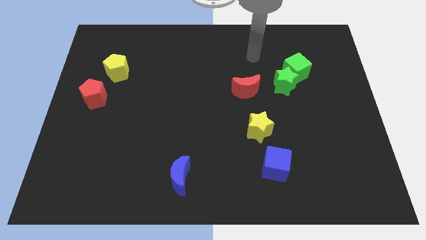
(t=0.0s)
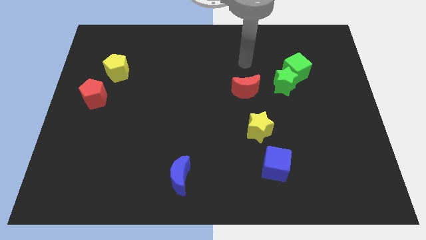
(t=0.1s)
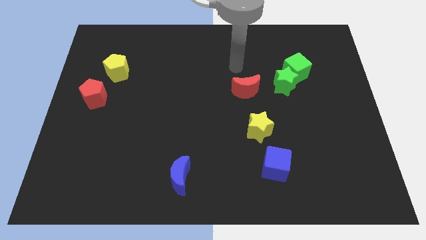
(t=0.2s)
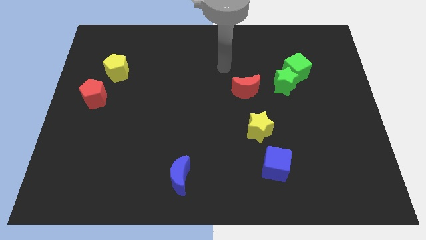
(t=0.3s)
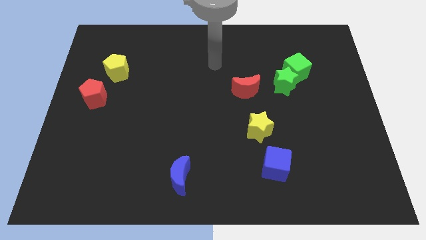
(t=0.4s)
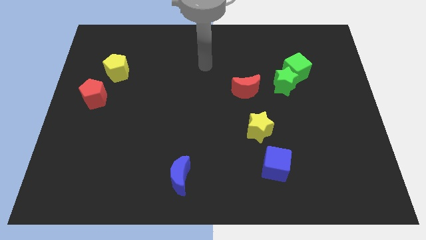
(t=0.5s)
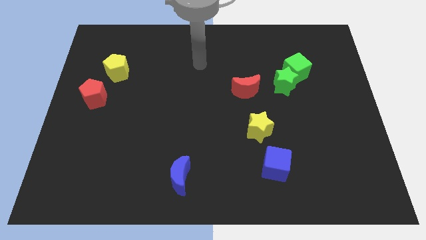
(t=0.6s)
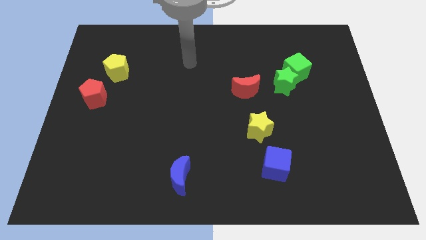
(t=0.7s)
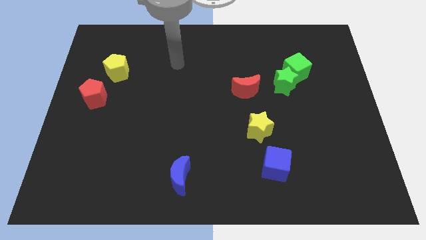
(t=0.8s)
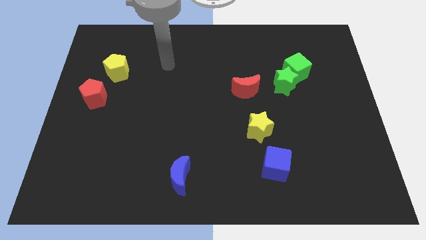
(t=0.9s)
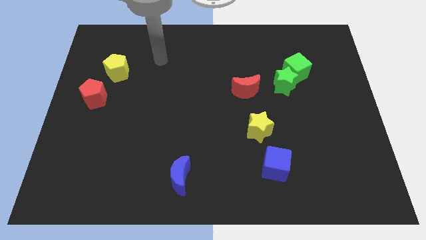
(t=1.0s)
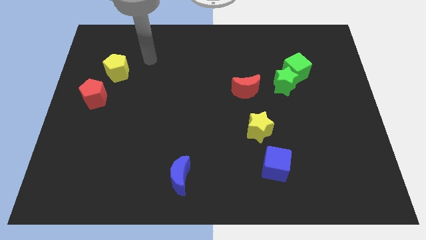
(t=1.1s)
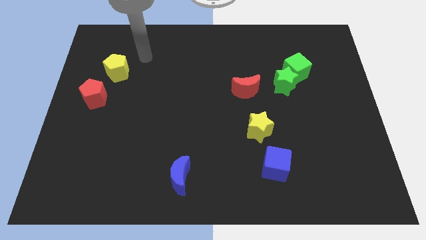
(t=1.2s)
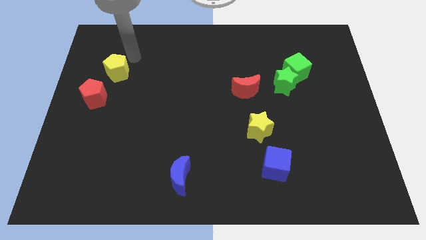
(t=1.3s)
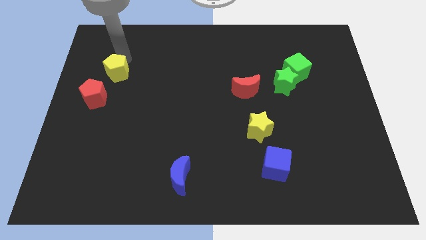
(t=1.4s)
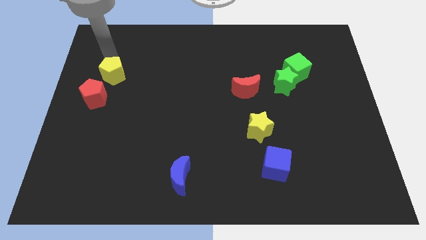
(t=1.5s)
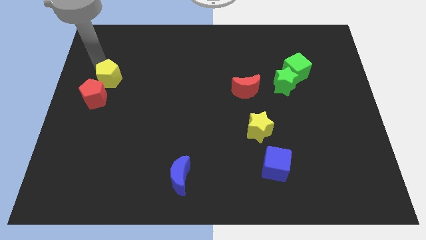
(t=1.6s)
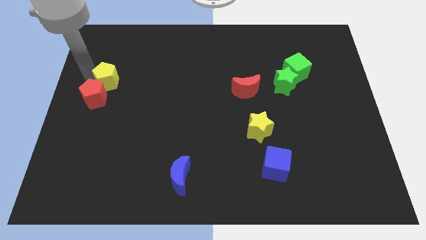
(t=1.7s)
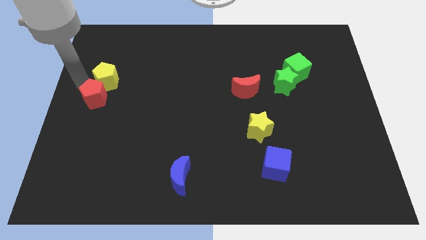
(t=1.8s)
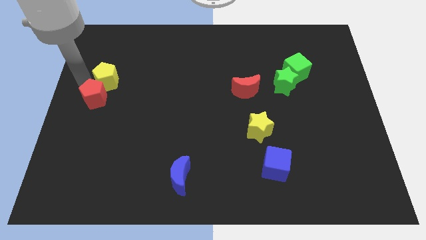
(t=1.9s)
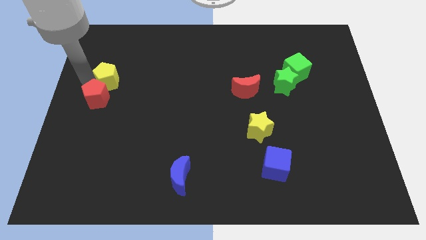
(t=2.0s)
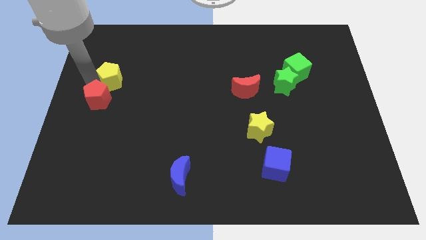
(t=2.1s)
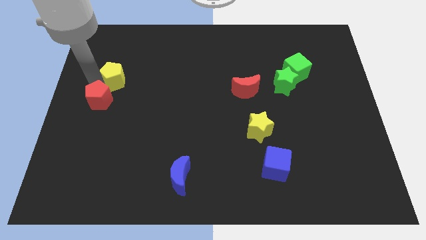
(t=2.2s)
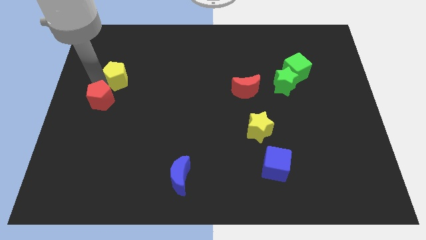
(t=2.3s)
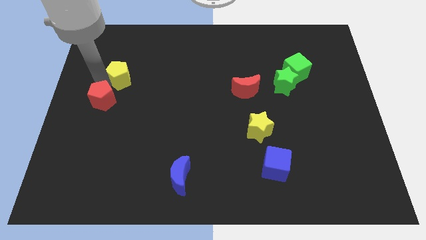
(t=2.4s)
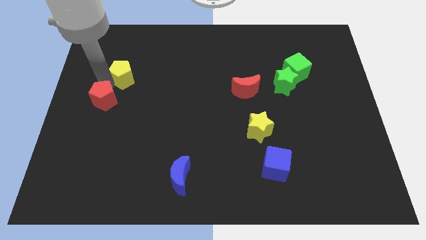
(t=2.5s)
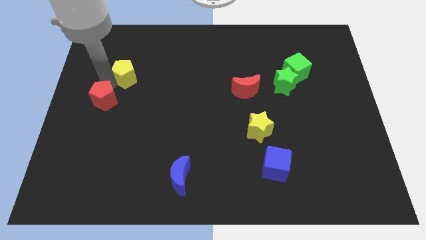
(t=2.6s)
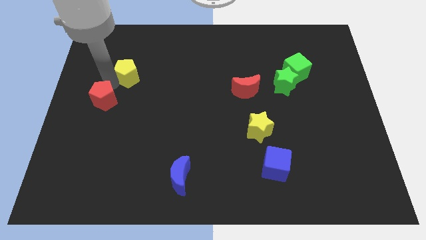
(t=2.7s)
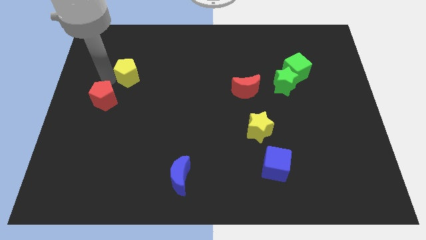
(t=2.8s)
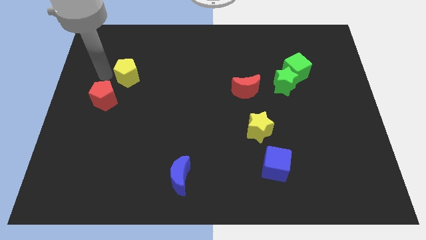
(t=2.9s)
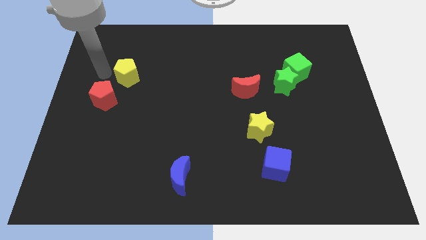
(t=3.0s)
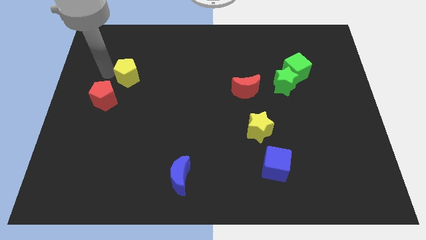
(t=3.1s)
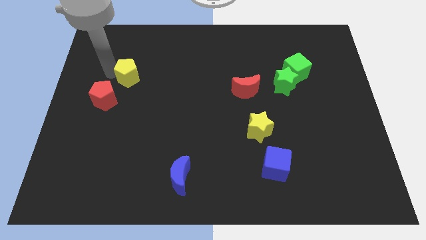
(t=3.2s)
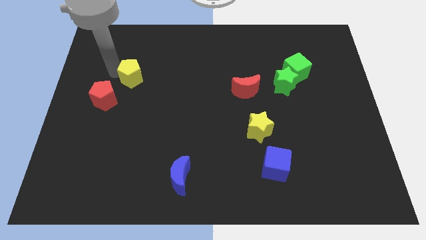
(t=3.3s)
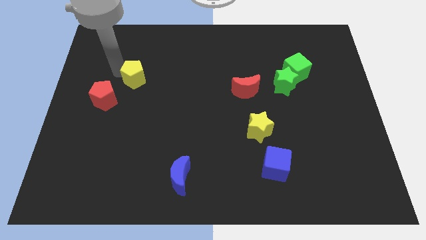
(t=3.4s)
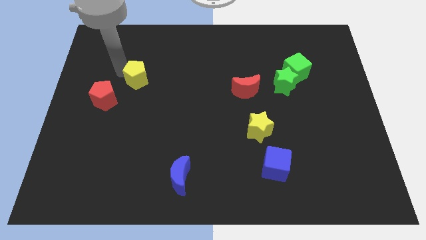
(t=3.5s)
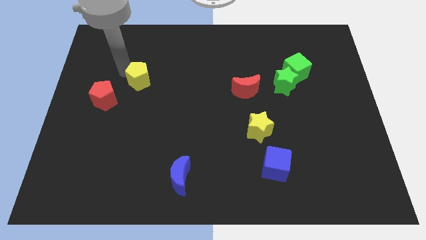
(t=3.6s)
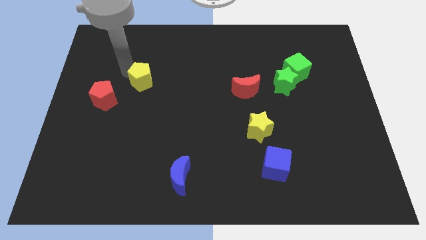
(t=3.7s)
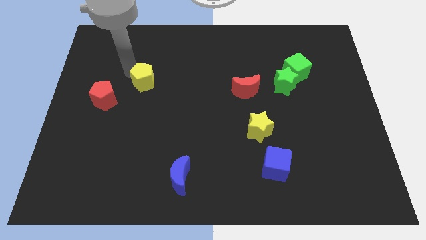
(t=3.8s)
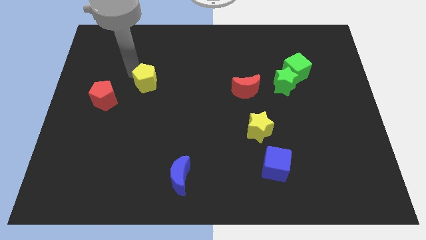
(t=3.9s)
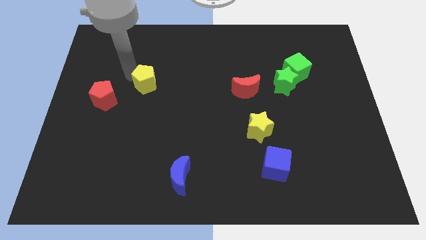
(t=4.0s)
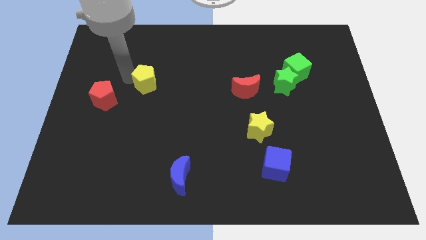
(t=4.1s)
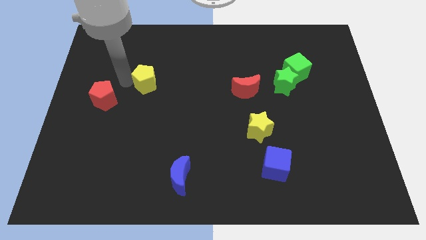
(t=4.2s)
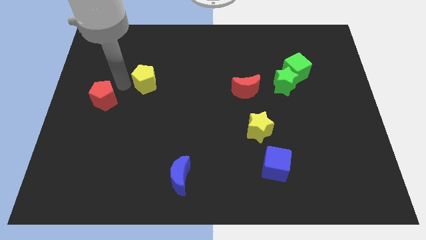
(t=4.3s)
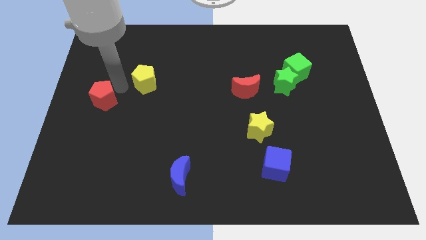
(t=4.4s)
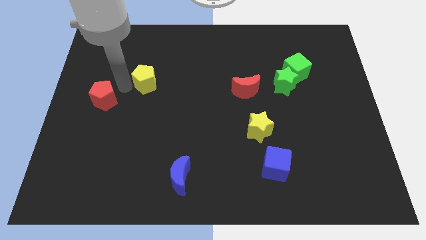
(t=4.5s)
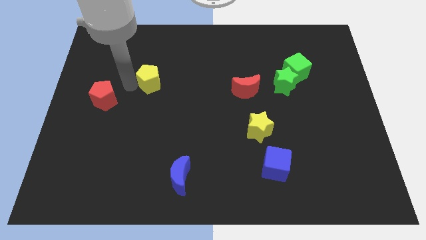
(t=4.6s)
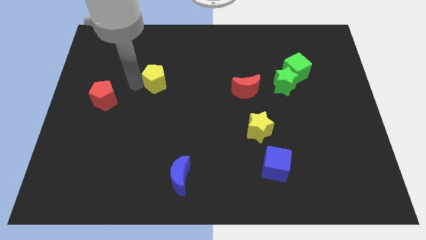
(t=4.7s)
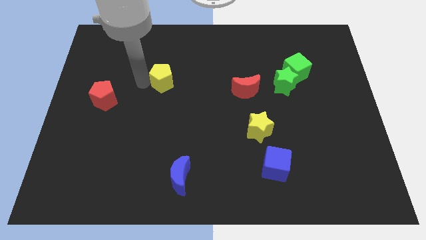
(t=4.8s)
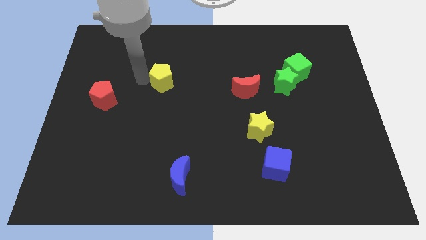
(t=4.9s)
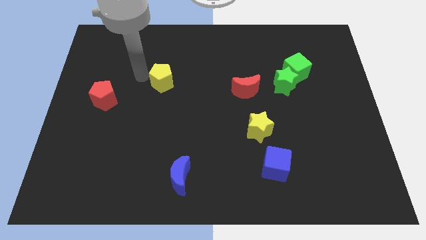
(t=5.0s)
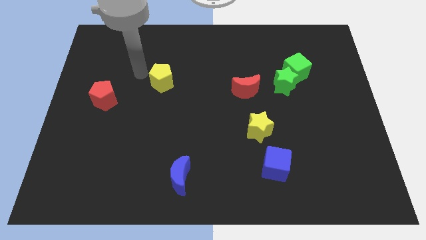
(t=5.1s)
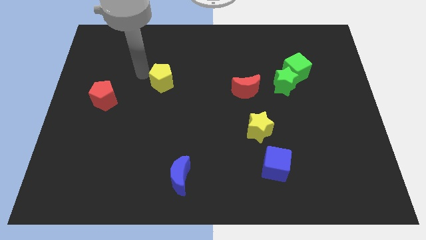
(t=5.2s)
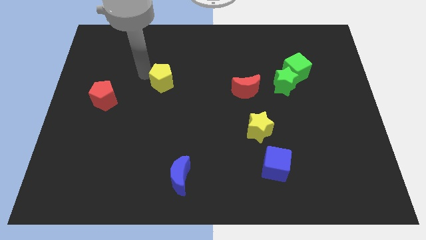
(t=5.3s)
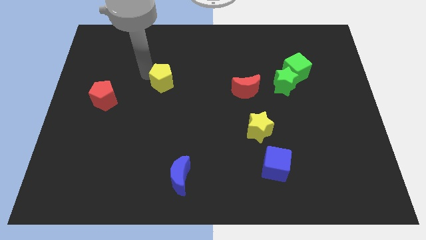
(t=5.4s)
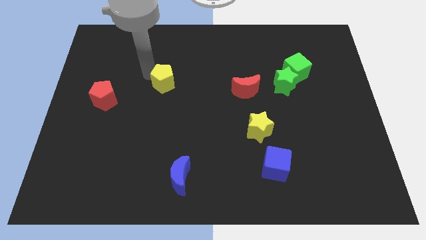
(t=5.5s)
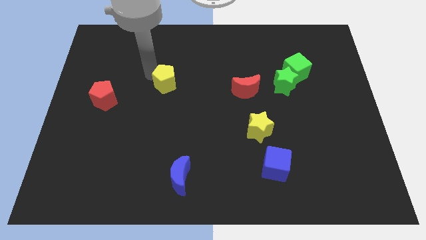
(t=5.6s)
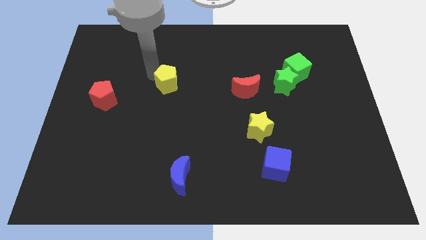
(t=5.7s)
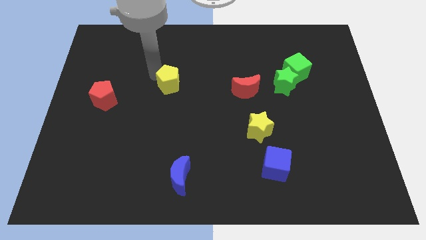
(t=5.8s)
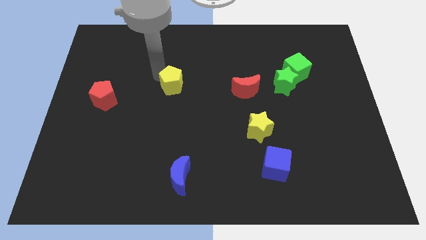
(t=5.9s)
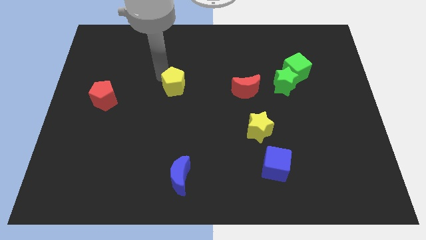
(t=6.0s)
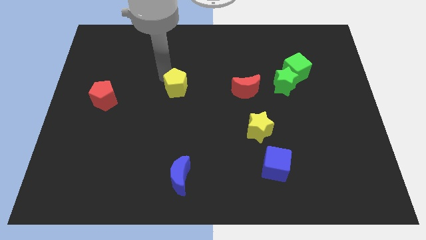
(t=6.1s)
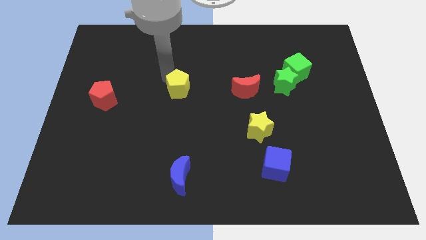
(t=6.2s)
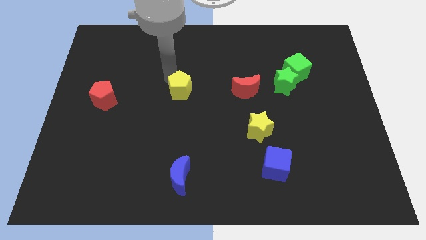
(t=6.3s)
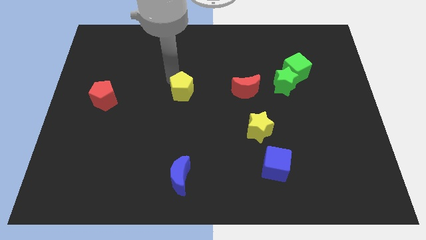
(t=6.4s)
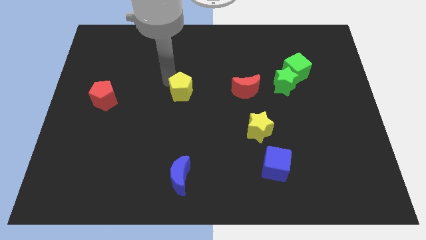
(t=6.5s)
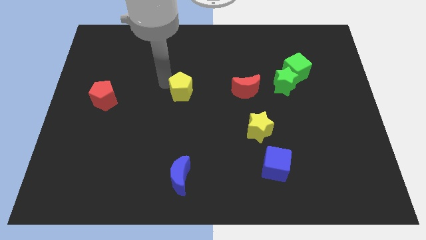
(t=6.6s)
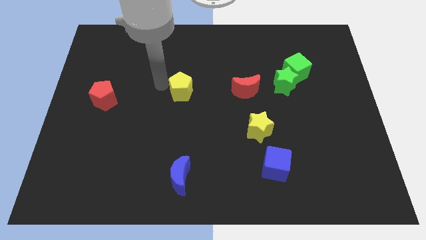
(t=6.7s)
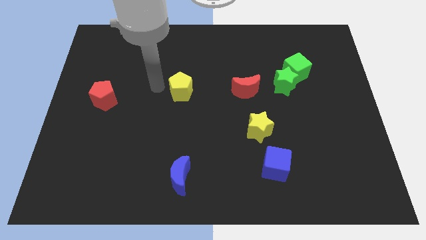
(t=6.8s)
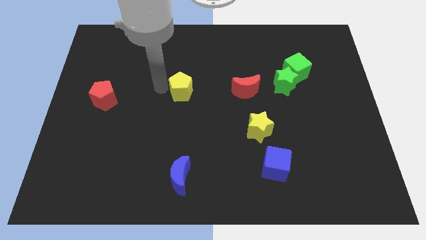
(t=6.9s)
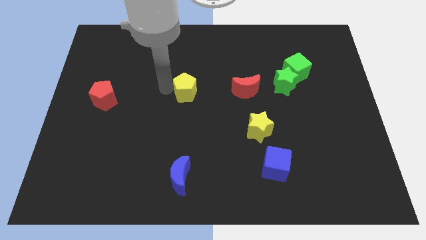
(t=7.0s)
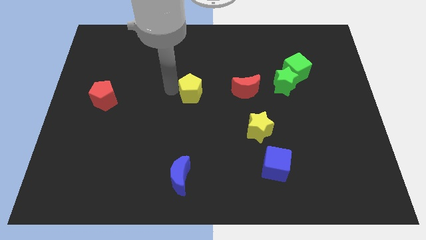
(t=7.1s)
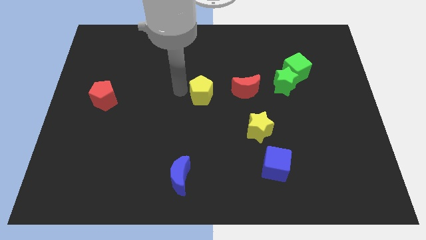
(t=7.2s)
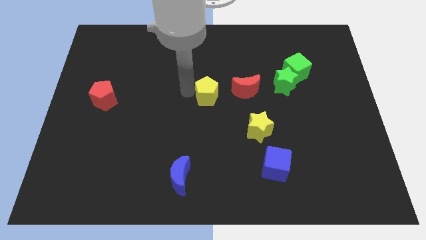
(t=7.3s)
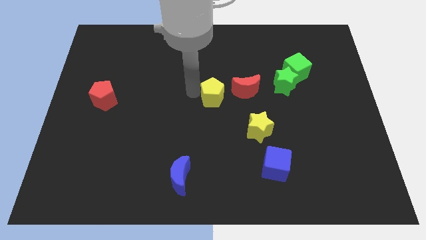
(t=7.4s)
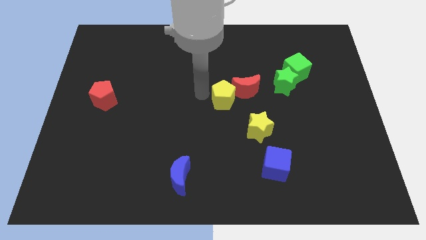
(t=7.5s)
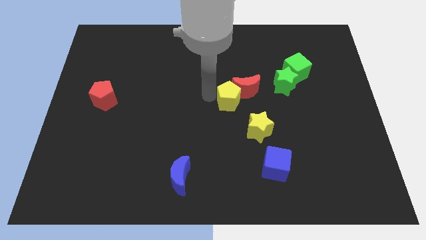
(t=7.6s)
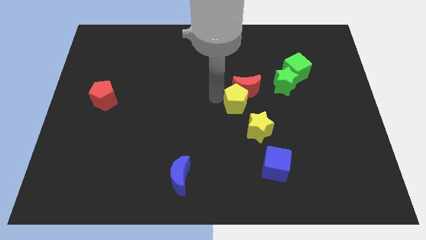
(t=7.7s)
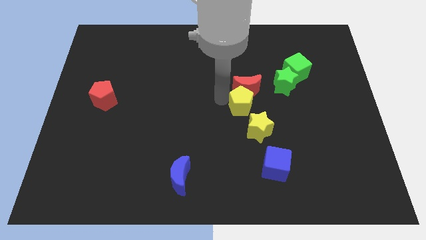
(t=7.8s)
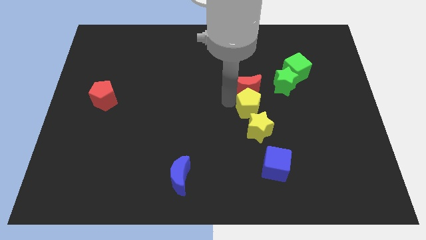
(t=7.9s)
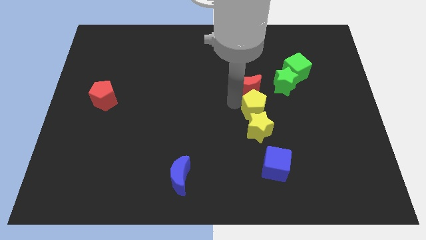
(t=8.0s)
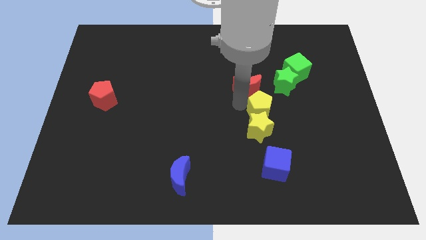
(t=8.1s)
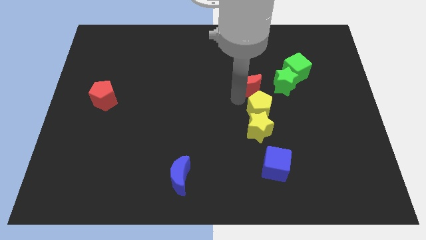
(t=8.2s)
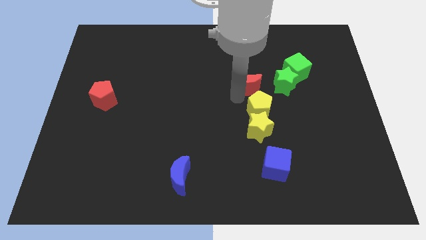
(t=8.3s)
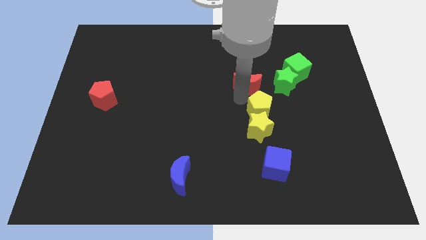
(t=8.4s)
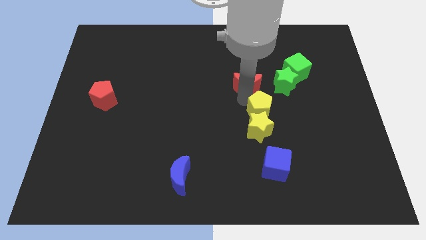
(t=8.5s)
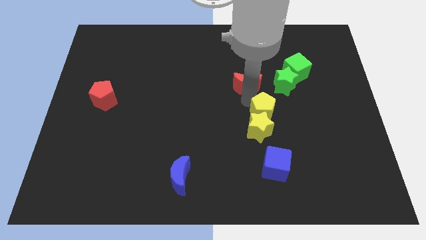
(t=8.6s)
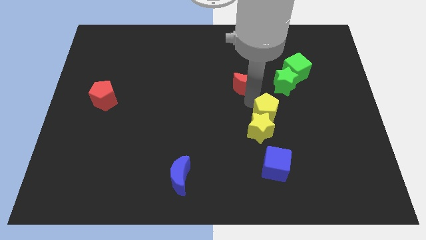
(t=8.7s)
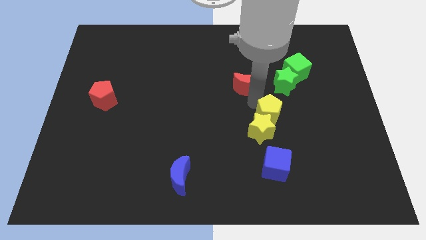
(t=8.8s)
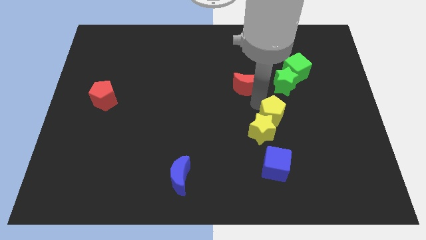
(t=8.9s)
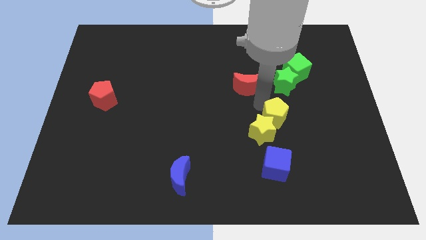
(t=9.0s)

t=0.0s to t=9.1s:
put the yellow pentagon to the right side of the yellow star
